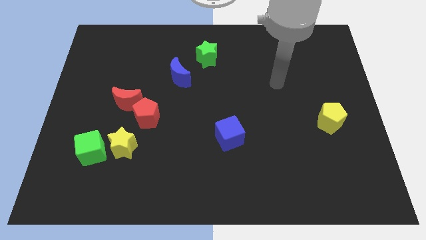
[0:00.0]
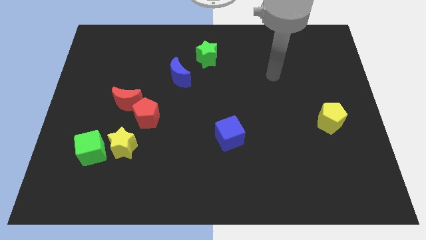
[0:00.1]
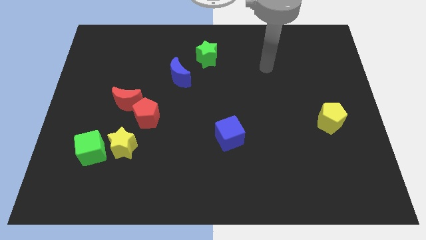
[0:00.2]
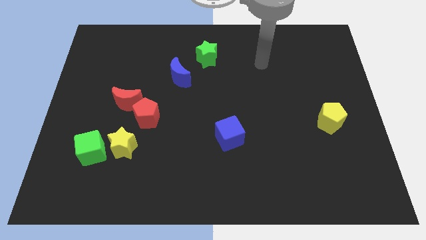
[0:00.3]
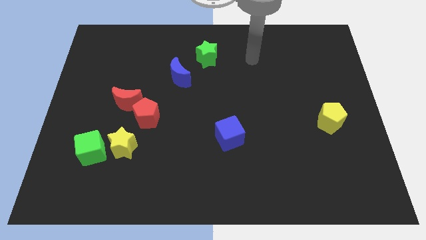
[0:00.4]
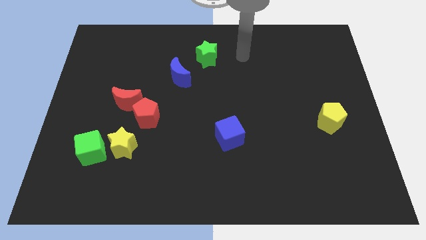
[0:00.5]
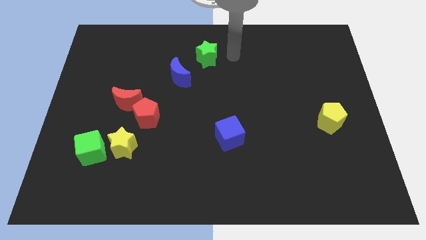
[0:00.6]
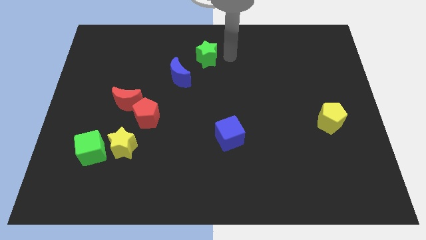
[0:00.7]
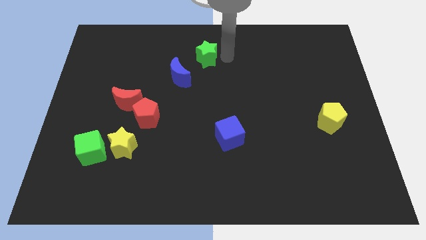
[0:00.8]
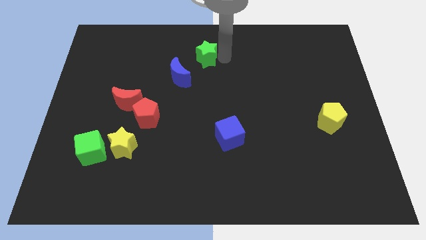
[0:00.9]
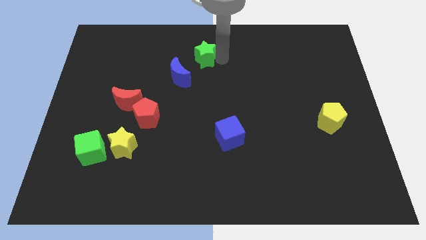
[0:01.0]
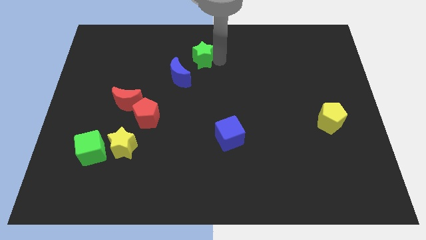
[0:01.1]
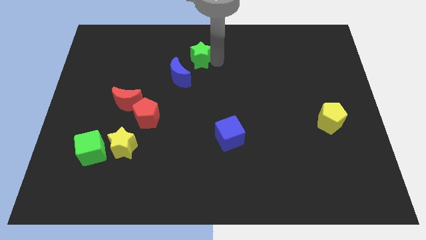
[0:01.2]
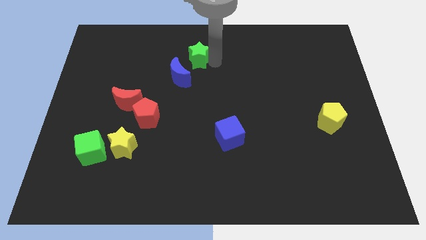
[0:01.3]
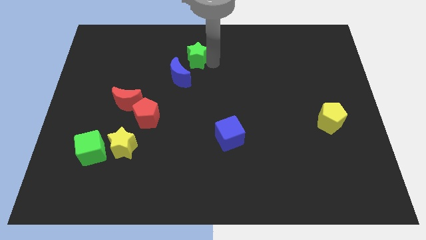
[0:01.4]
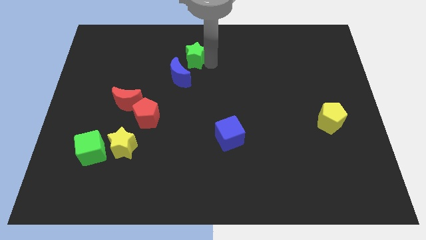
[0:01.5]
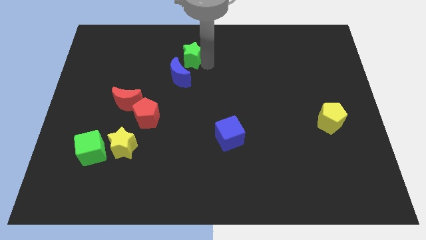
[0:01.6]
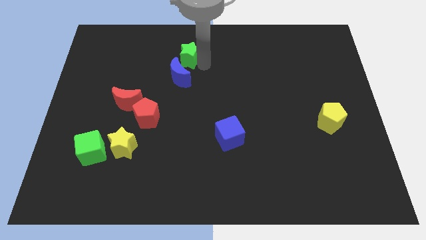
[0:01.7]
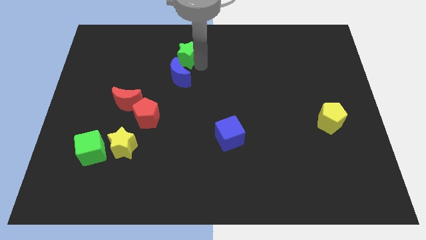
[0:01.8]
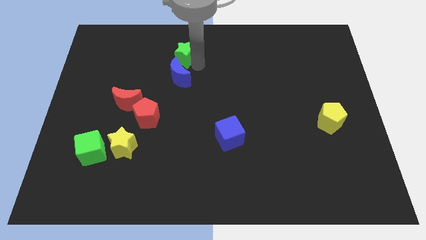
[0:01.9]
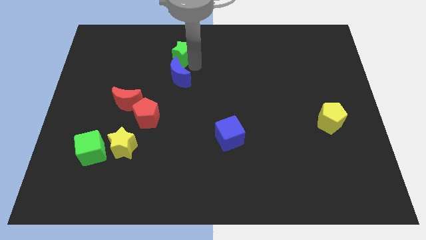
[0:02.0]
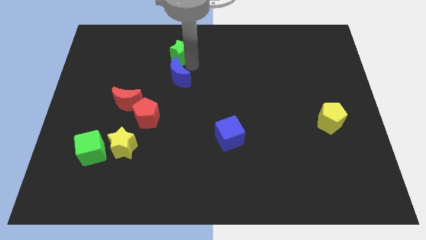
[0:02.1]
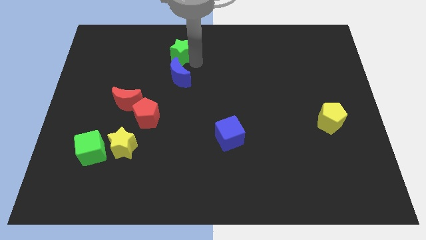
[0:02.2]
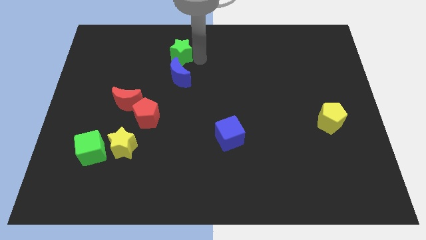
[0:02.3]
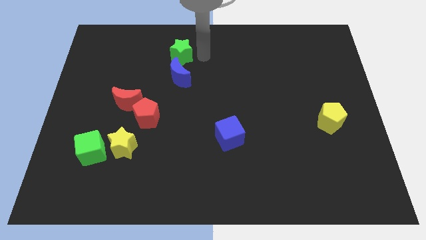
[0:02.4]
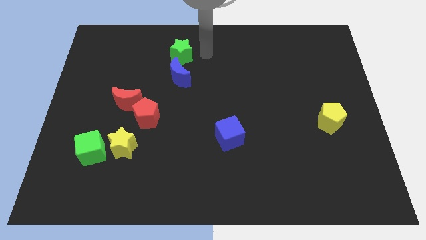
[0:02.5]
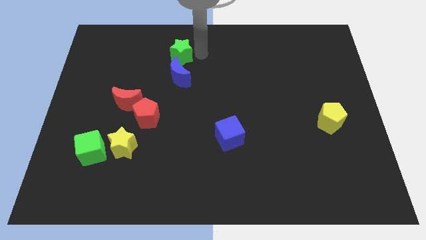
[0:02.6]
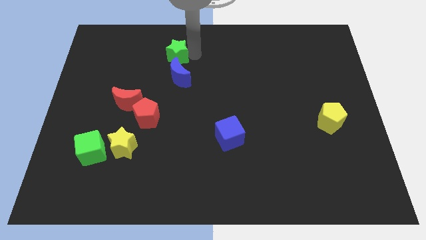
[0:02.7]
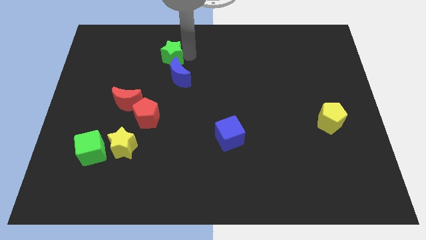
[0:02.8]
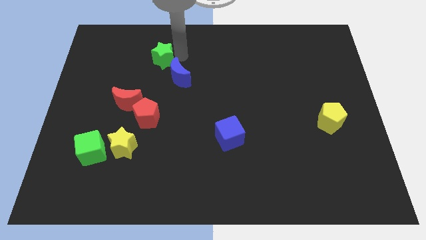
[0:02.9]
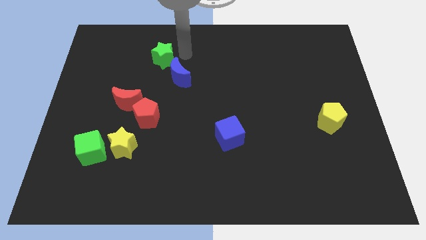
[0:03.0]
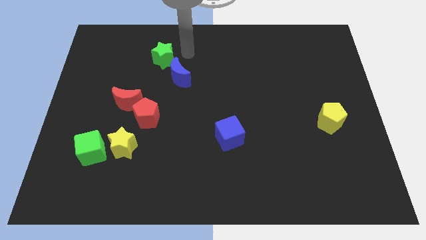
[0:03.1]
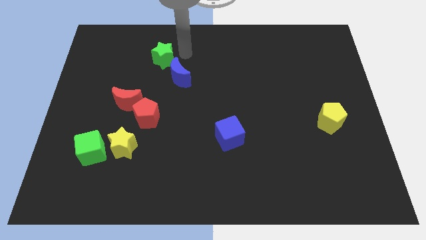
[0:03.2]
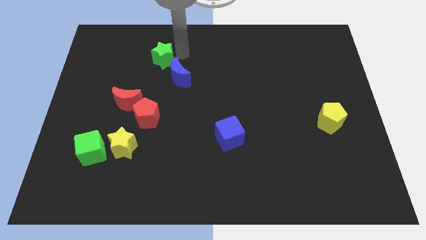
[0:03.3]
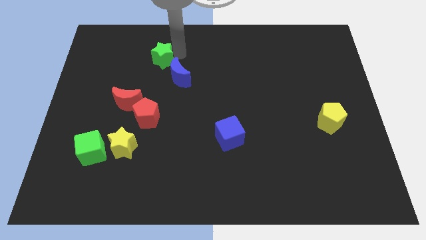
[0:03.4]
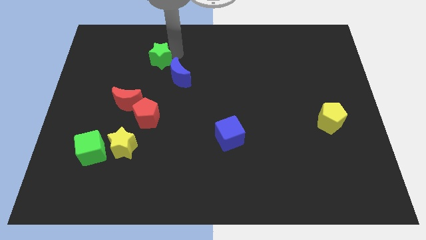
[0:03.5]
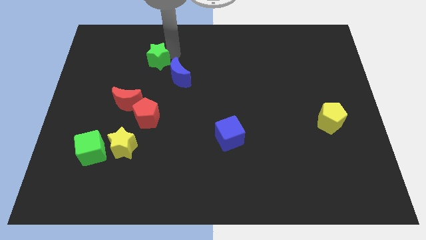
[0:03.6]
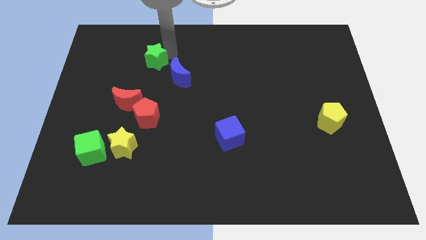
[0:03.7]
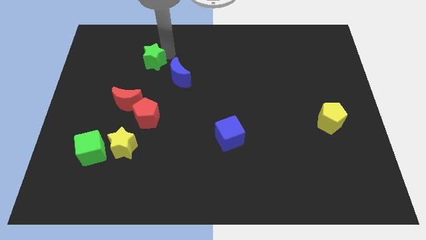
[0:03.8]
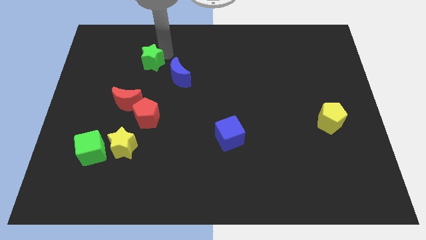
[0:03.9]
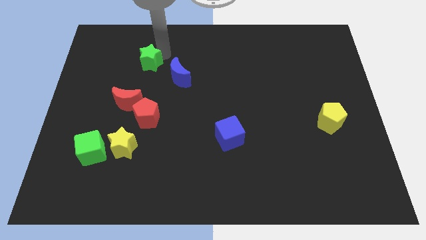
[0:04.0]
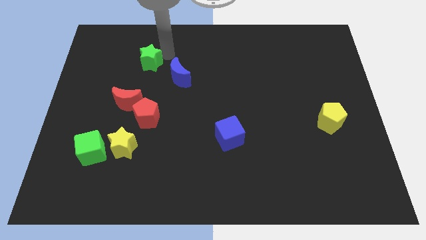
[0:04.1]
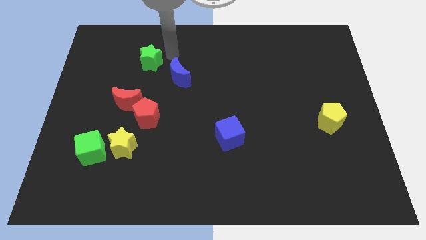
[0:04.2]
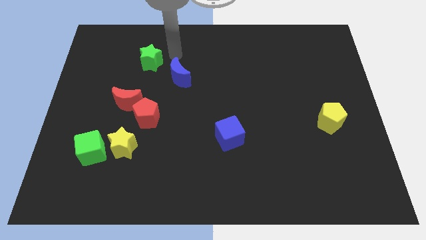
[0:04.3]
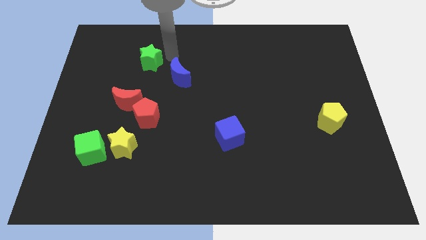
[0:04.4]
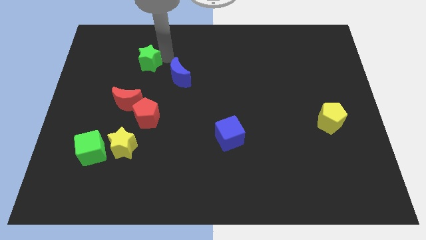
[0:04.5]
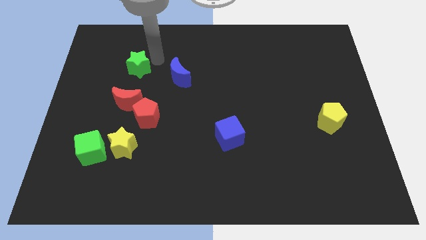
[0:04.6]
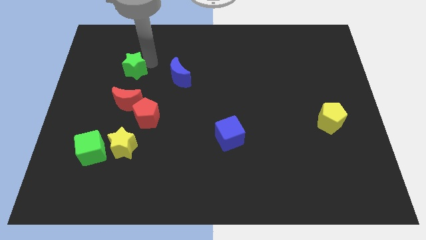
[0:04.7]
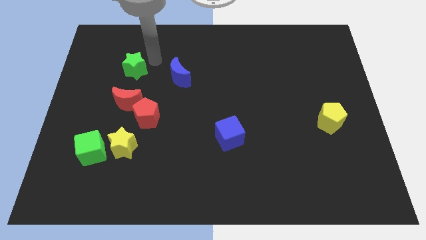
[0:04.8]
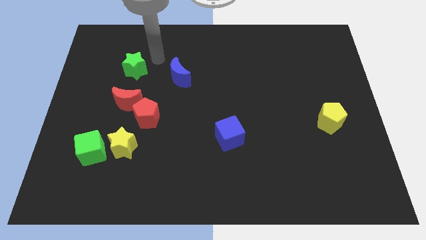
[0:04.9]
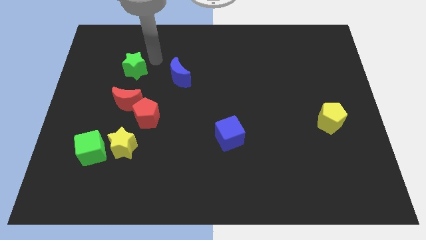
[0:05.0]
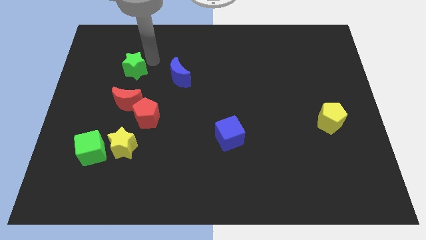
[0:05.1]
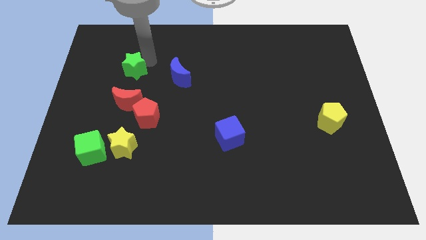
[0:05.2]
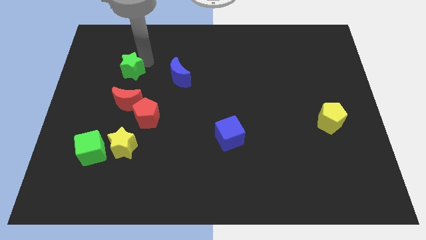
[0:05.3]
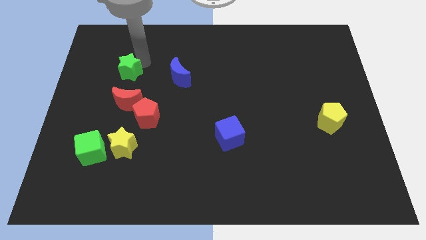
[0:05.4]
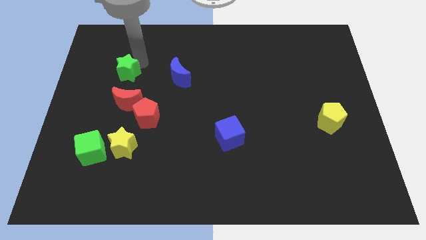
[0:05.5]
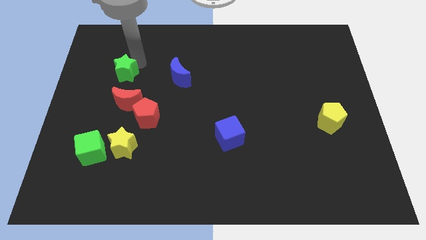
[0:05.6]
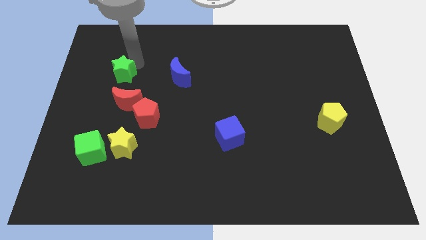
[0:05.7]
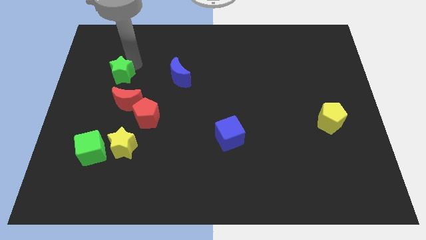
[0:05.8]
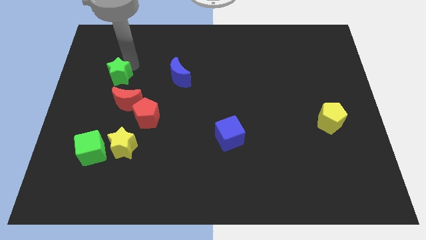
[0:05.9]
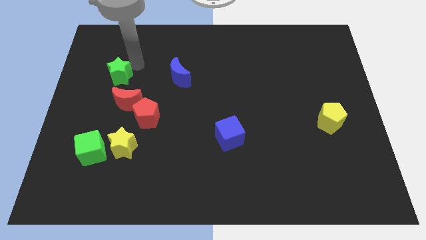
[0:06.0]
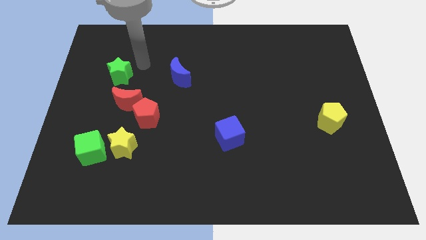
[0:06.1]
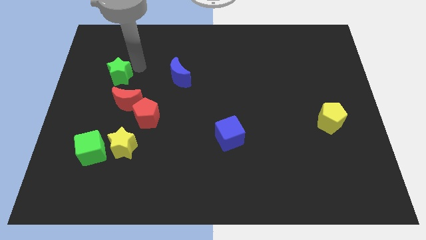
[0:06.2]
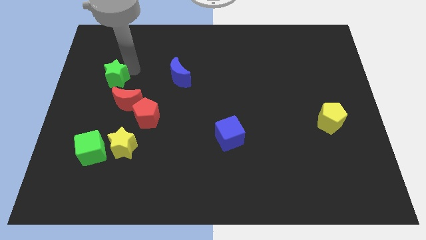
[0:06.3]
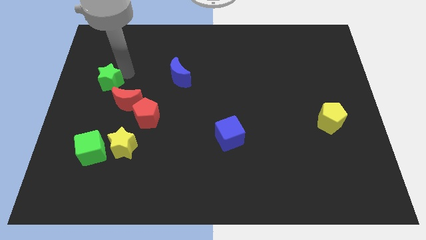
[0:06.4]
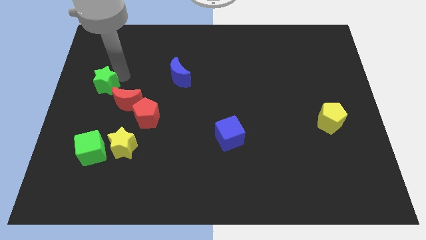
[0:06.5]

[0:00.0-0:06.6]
push the green star to the left side of the board
